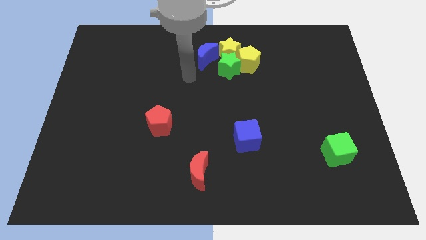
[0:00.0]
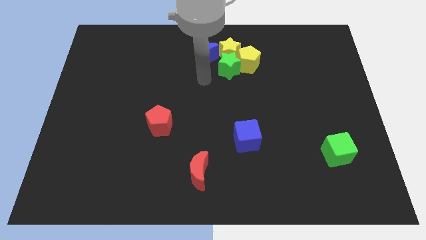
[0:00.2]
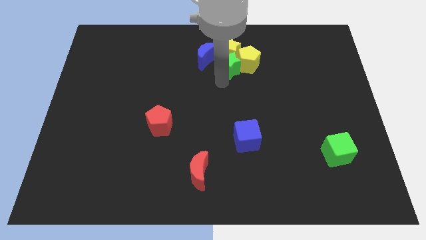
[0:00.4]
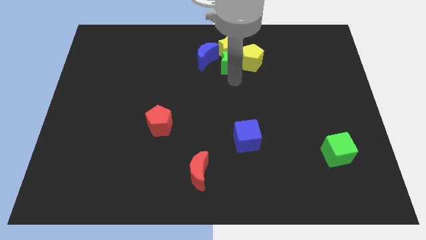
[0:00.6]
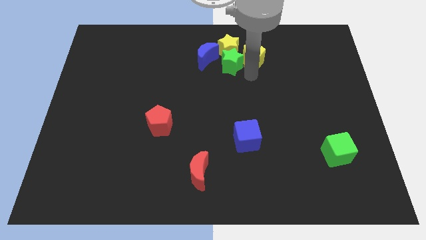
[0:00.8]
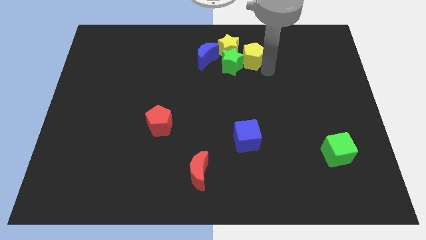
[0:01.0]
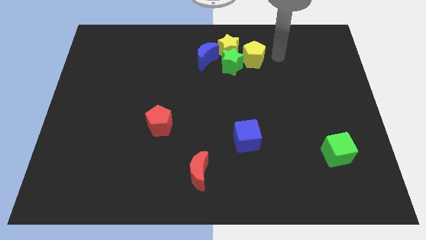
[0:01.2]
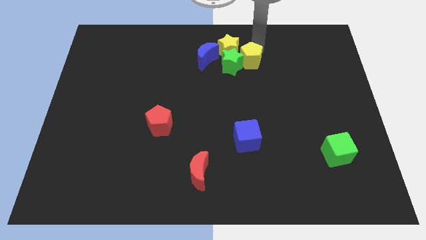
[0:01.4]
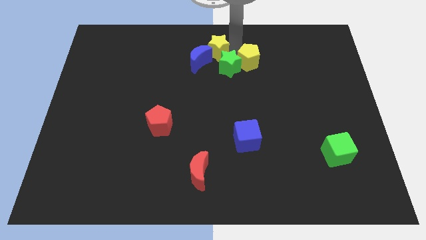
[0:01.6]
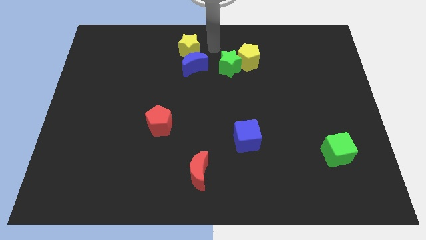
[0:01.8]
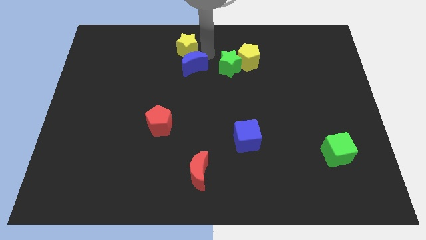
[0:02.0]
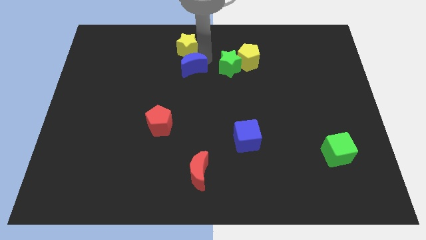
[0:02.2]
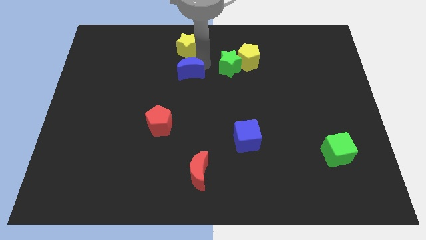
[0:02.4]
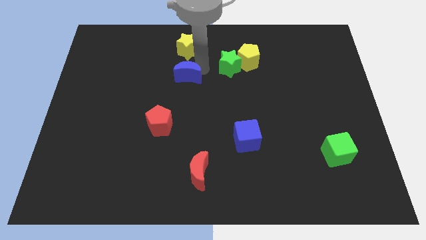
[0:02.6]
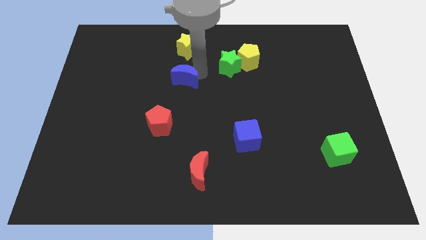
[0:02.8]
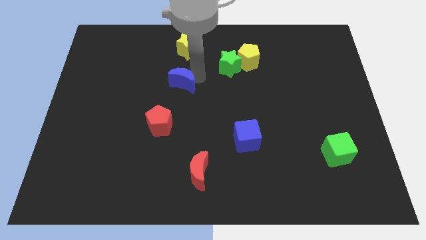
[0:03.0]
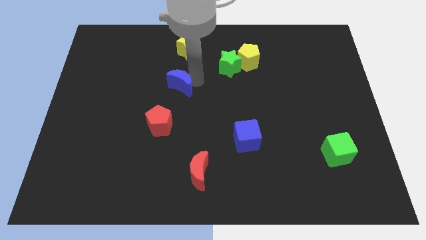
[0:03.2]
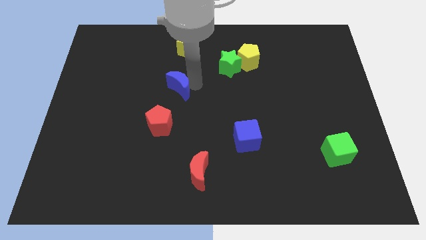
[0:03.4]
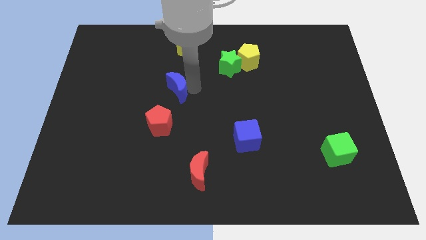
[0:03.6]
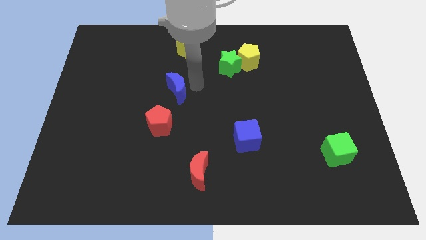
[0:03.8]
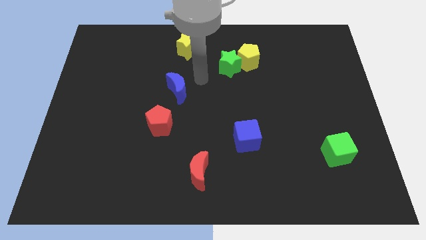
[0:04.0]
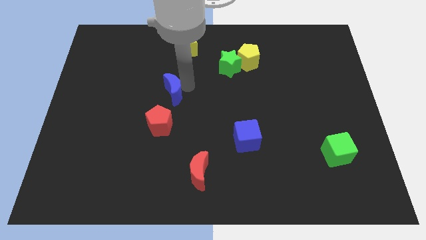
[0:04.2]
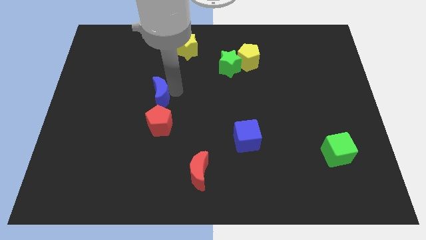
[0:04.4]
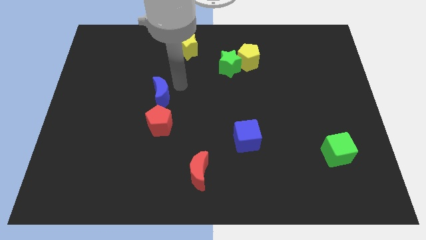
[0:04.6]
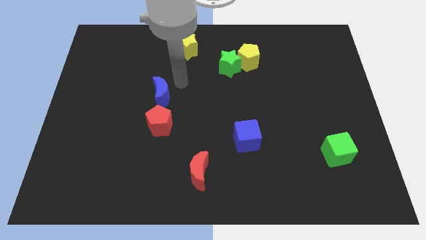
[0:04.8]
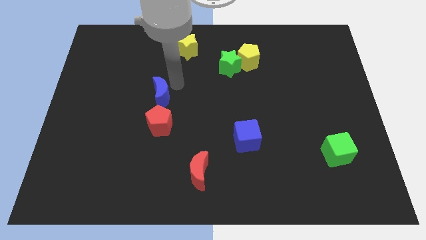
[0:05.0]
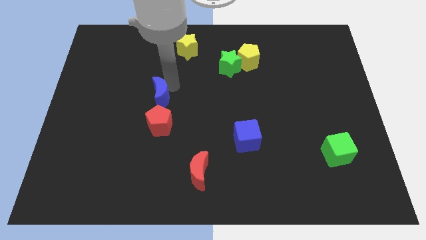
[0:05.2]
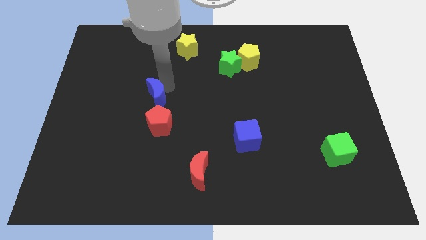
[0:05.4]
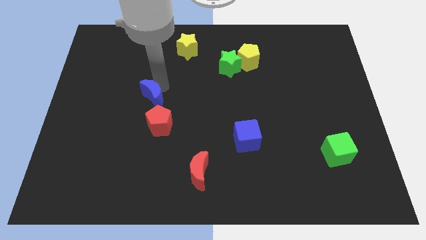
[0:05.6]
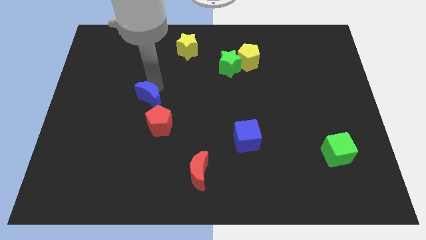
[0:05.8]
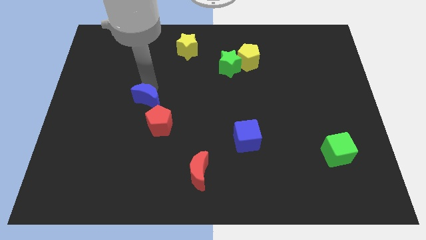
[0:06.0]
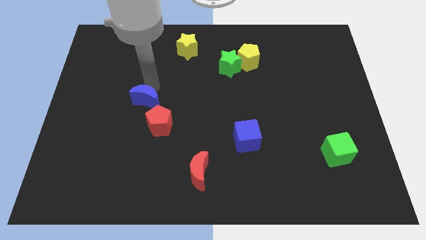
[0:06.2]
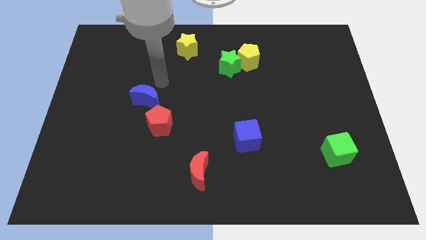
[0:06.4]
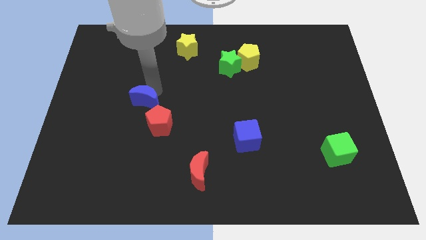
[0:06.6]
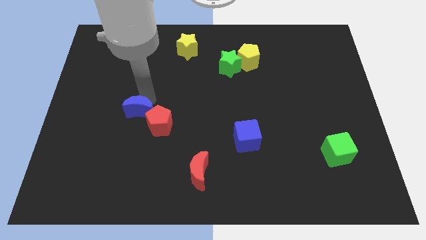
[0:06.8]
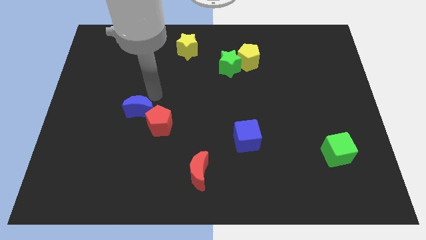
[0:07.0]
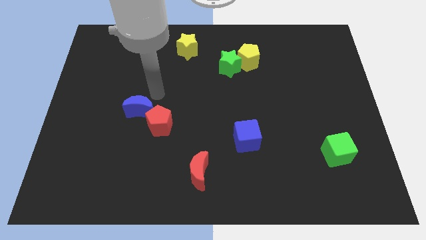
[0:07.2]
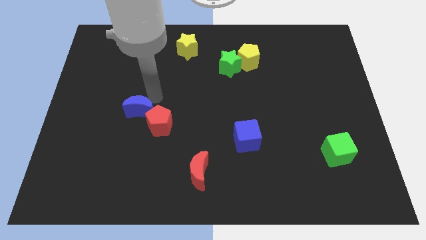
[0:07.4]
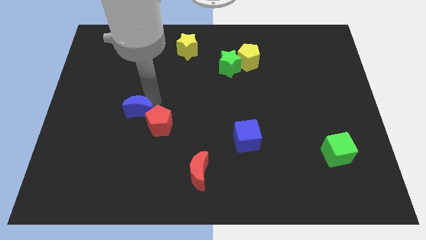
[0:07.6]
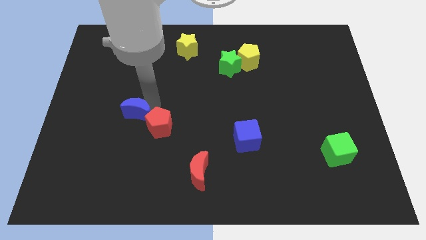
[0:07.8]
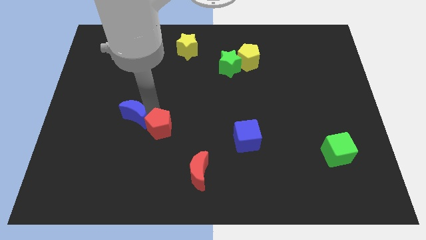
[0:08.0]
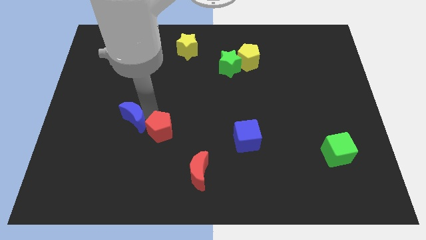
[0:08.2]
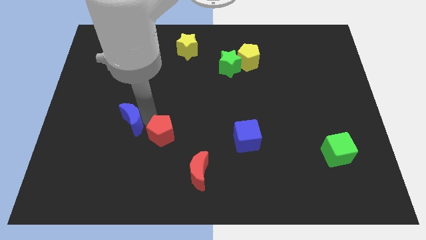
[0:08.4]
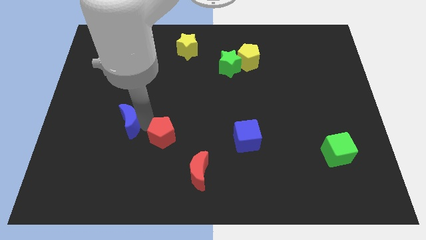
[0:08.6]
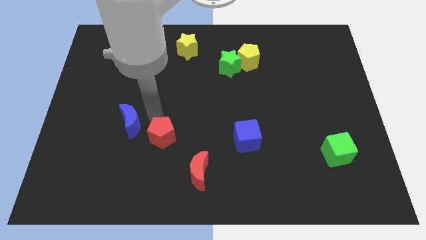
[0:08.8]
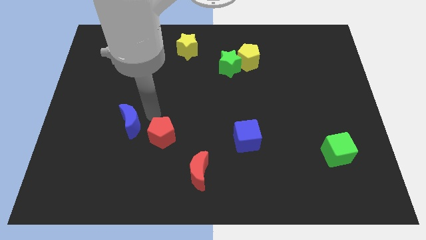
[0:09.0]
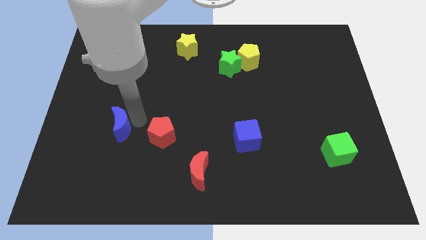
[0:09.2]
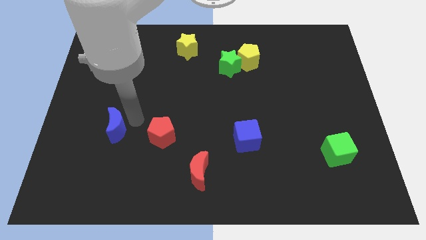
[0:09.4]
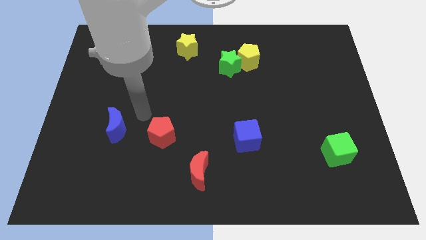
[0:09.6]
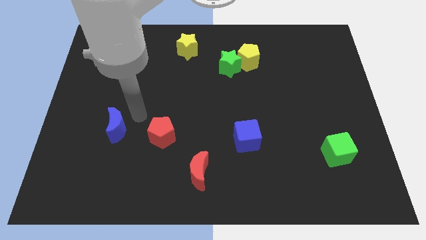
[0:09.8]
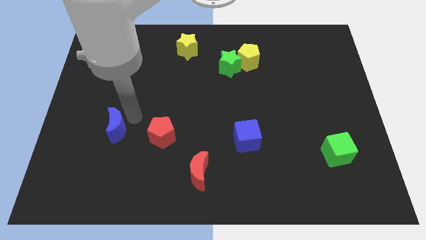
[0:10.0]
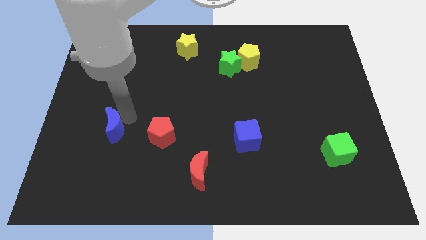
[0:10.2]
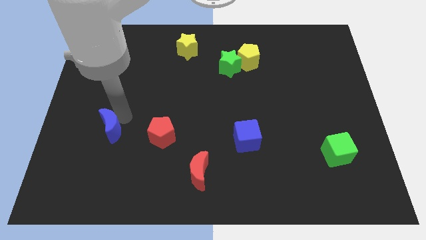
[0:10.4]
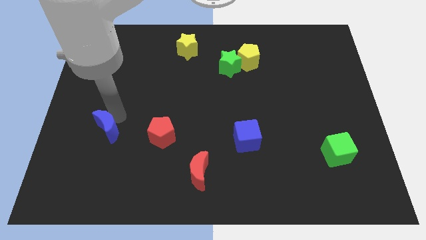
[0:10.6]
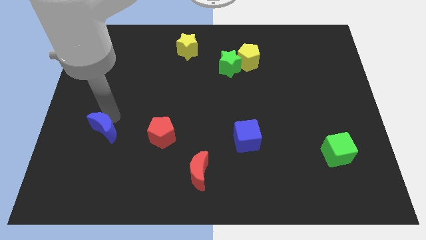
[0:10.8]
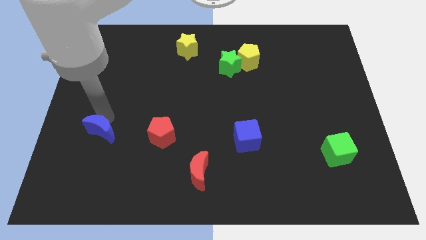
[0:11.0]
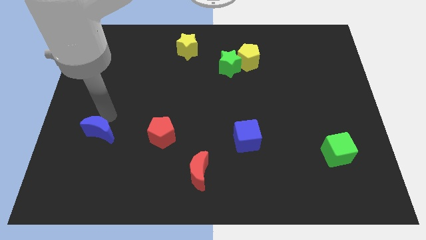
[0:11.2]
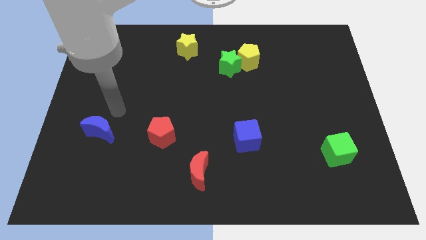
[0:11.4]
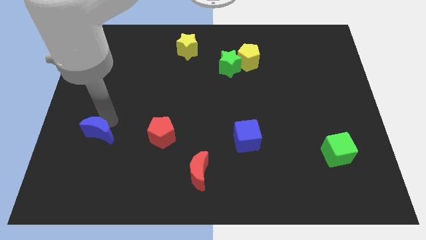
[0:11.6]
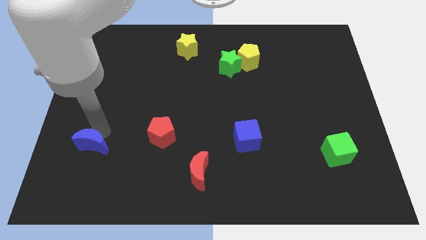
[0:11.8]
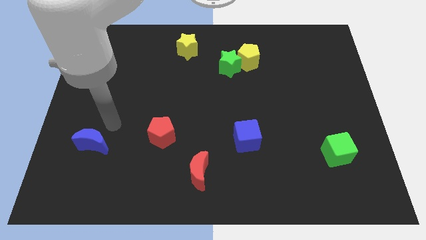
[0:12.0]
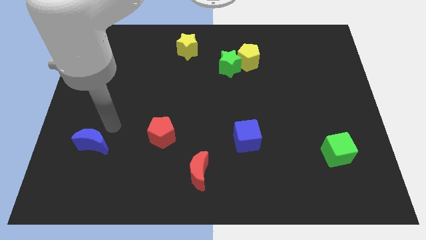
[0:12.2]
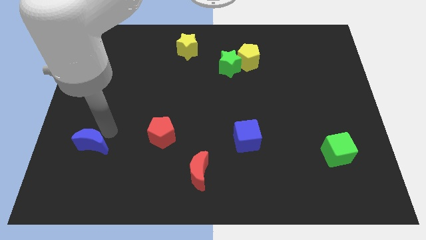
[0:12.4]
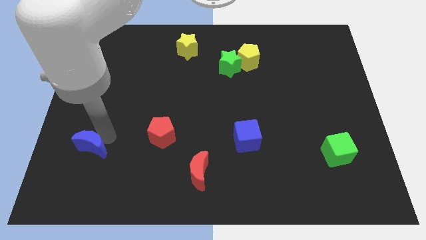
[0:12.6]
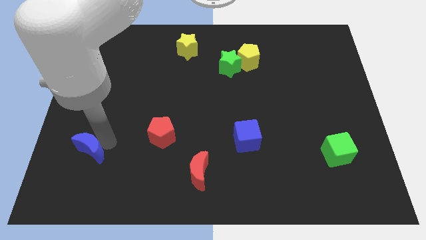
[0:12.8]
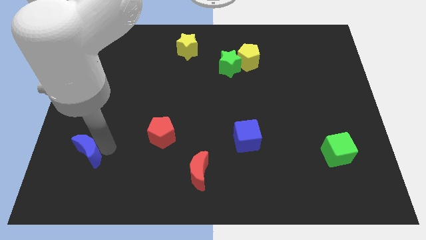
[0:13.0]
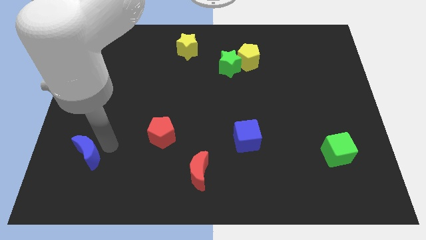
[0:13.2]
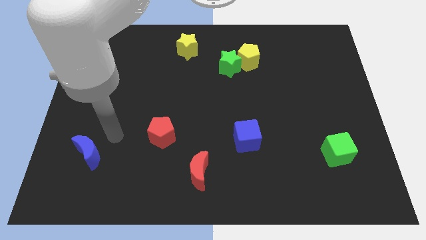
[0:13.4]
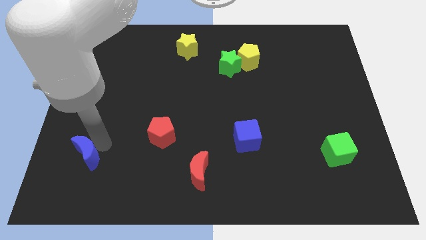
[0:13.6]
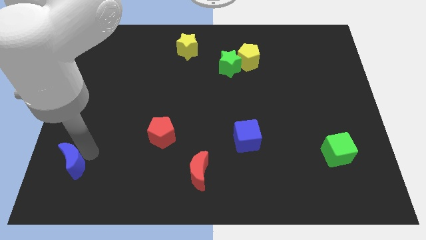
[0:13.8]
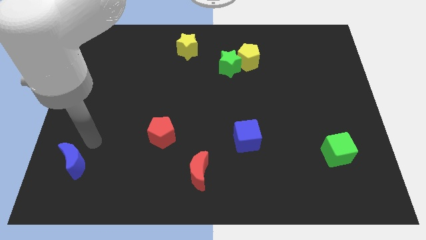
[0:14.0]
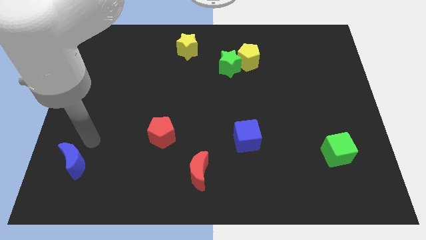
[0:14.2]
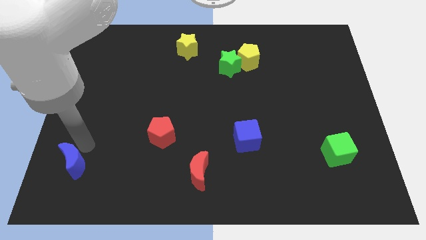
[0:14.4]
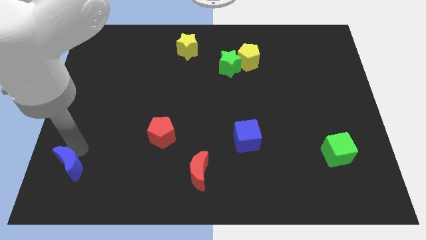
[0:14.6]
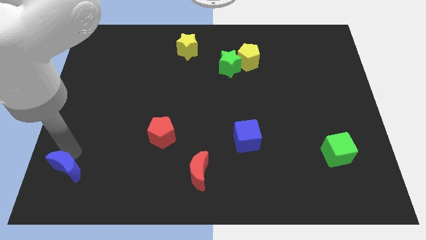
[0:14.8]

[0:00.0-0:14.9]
put the blue moon to the bottom left corner
